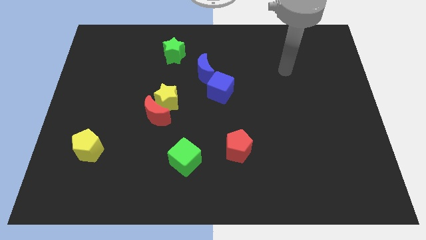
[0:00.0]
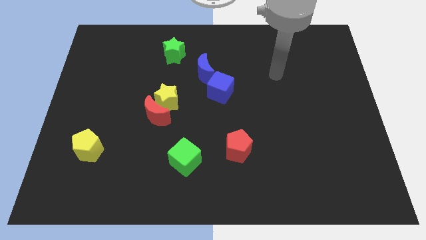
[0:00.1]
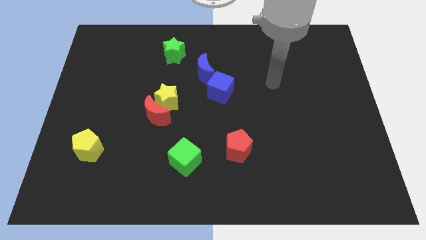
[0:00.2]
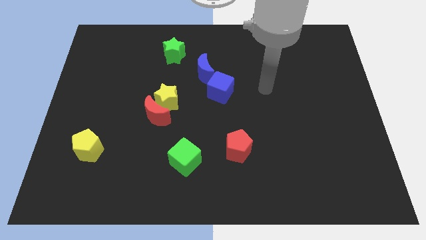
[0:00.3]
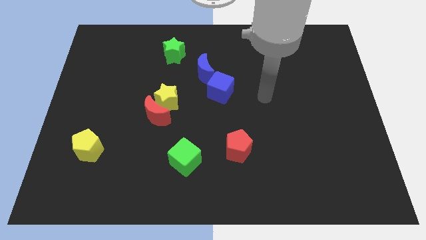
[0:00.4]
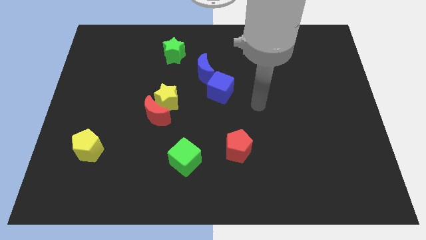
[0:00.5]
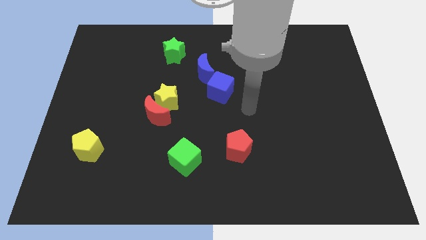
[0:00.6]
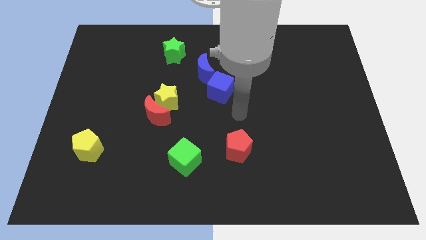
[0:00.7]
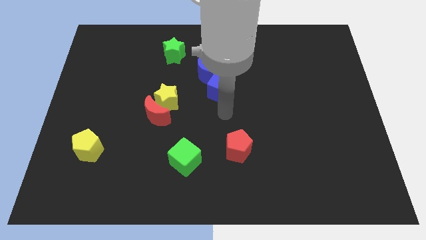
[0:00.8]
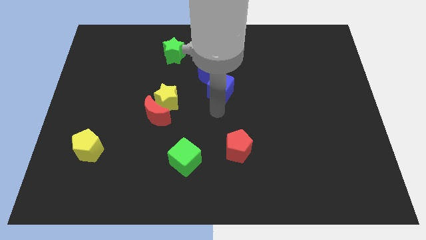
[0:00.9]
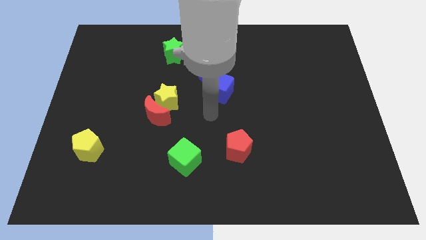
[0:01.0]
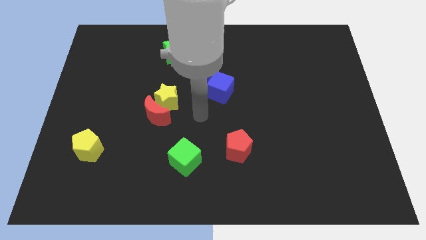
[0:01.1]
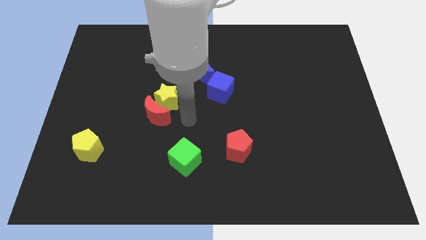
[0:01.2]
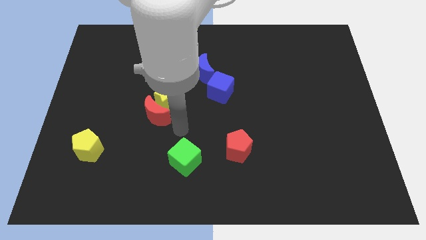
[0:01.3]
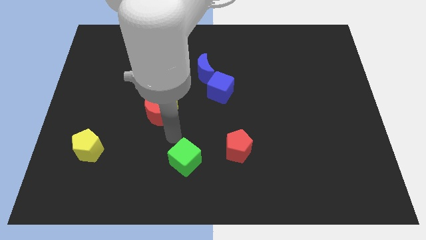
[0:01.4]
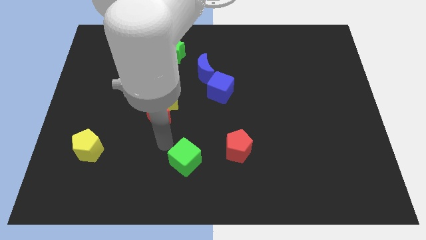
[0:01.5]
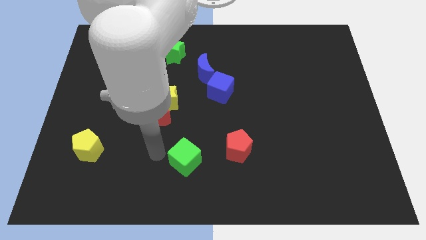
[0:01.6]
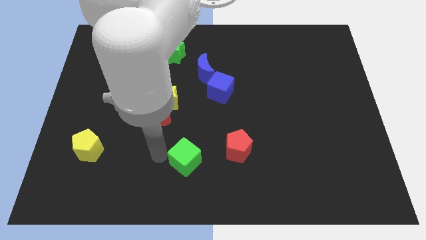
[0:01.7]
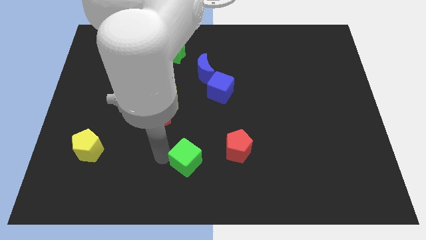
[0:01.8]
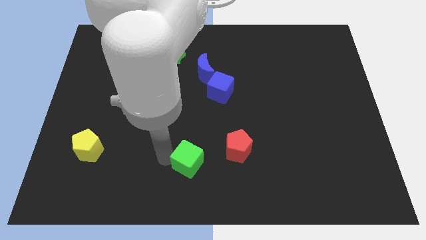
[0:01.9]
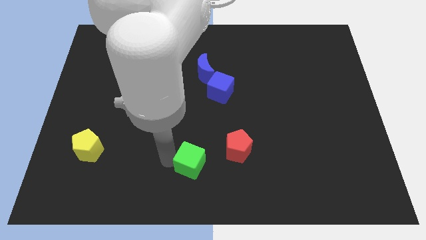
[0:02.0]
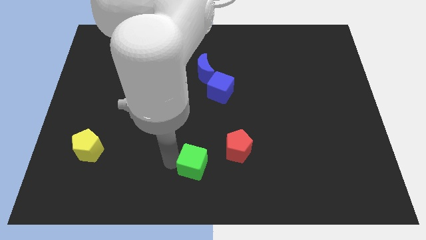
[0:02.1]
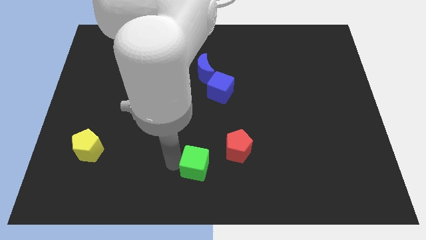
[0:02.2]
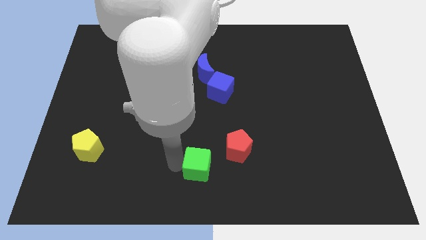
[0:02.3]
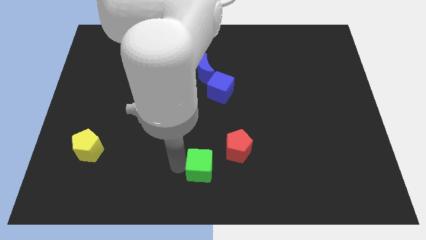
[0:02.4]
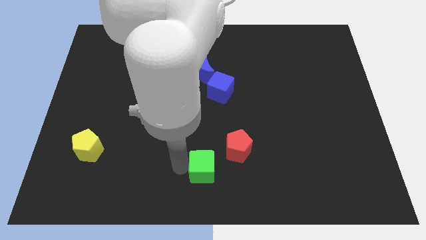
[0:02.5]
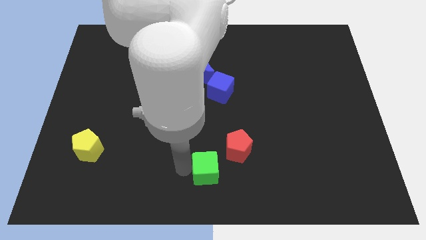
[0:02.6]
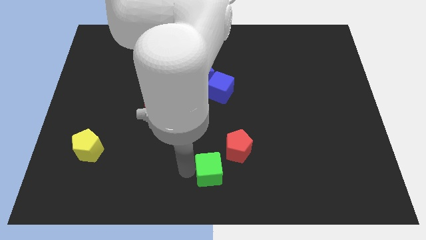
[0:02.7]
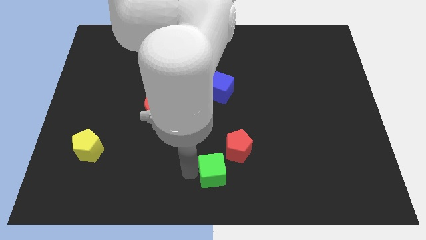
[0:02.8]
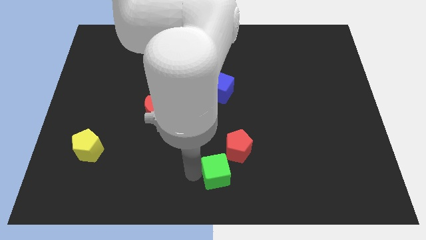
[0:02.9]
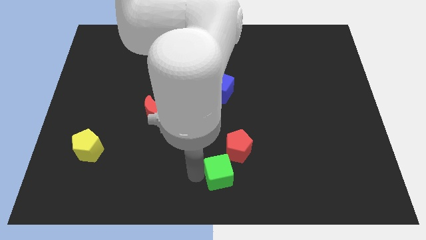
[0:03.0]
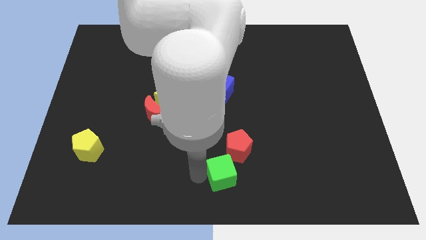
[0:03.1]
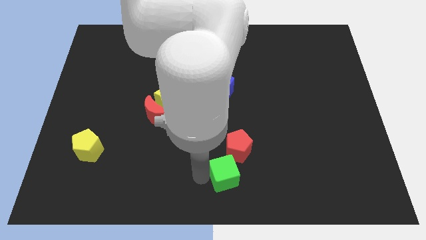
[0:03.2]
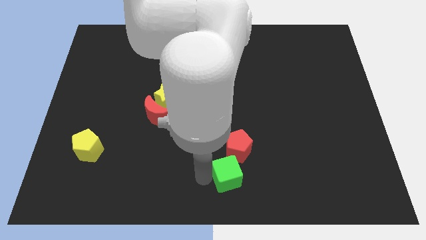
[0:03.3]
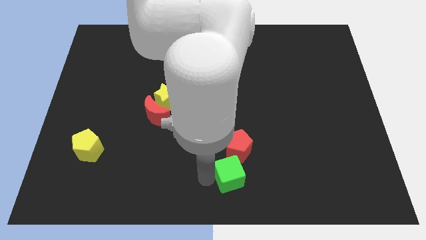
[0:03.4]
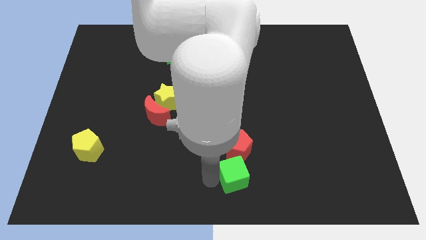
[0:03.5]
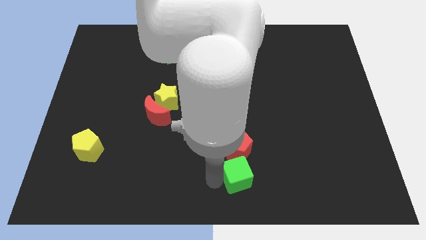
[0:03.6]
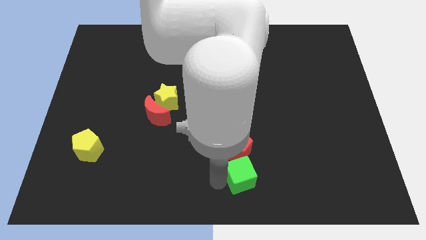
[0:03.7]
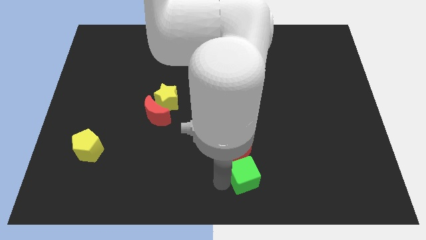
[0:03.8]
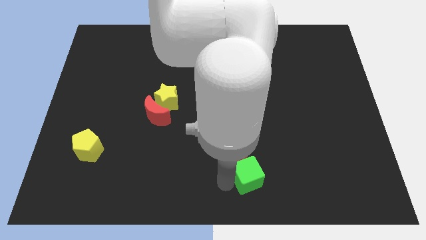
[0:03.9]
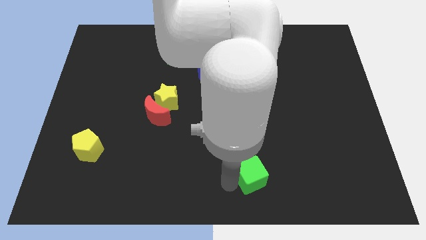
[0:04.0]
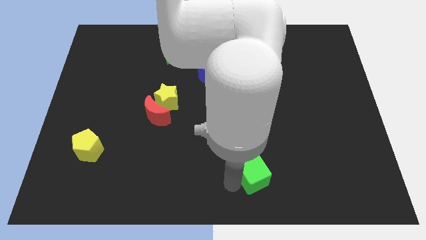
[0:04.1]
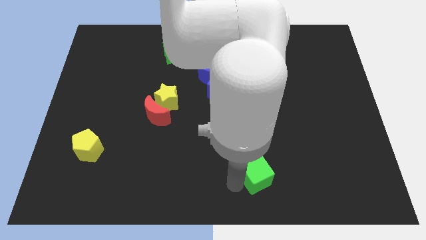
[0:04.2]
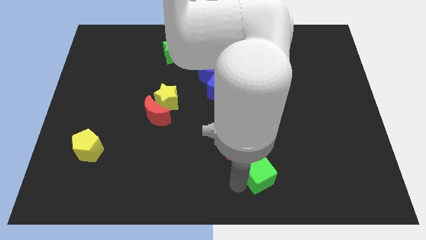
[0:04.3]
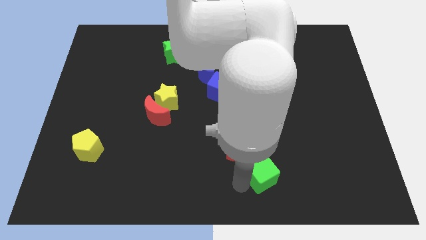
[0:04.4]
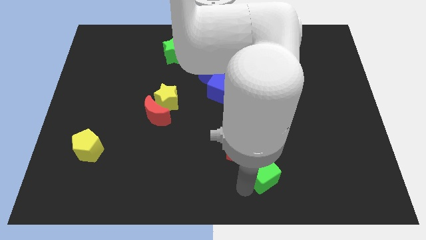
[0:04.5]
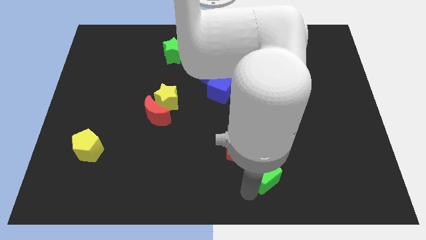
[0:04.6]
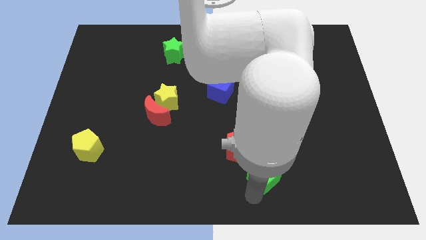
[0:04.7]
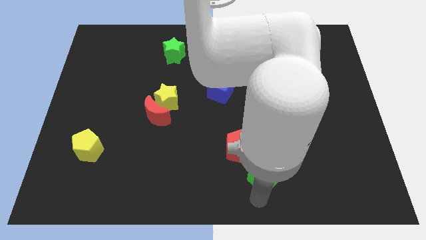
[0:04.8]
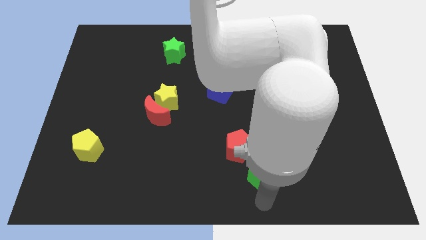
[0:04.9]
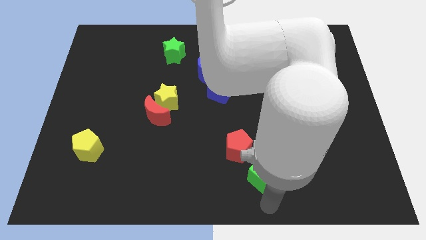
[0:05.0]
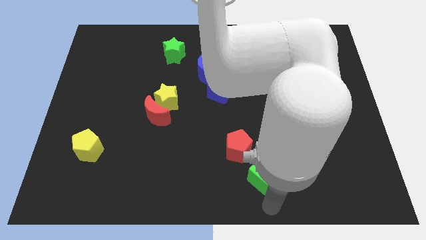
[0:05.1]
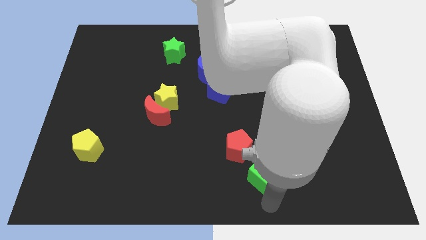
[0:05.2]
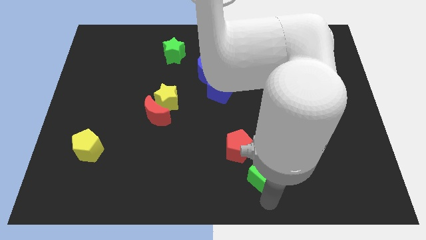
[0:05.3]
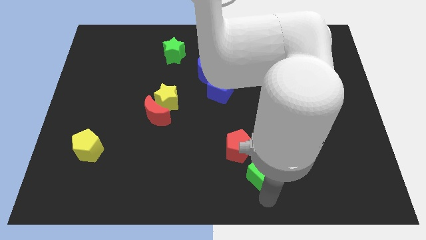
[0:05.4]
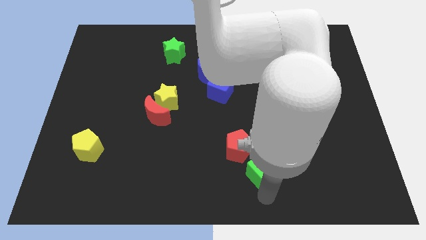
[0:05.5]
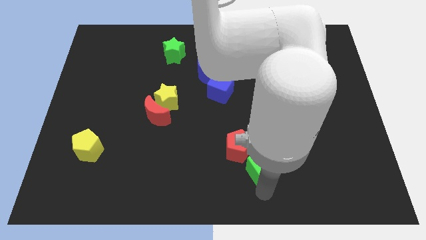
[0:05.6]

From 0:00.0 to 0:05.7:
move the green cube to the right side of the red pentagon
